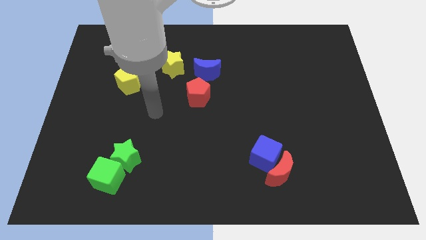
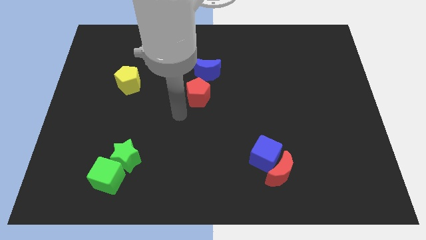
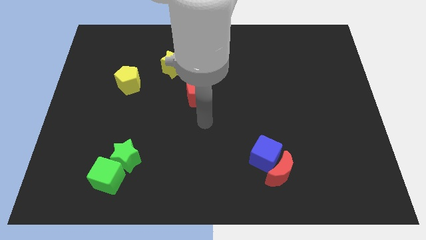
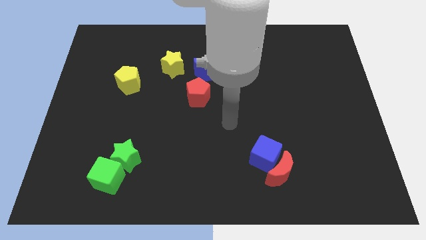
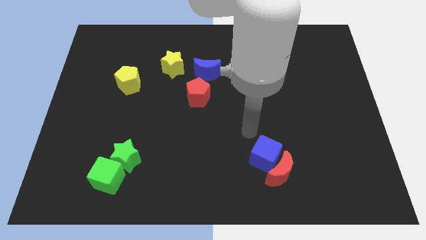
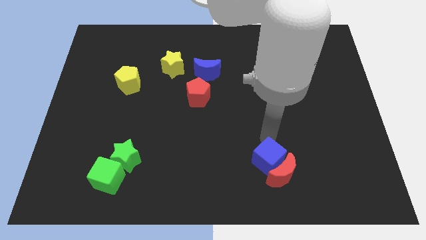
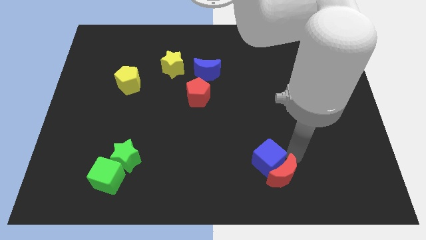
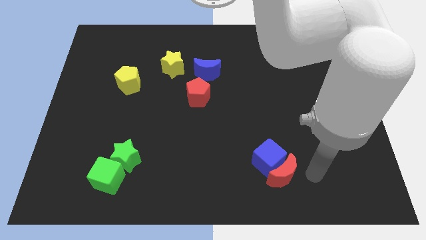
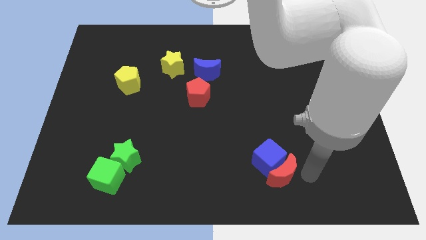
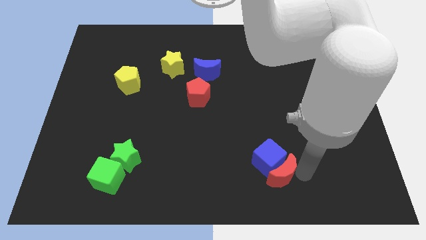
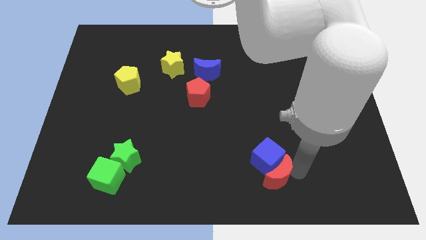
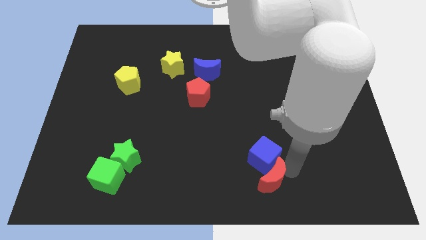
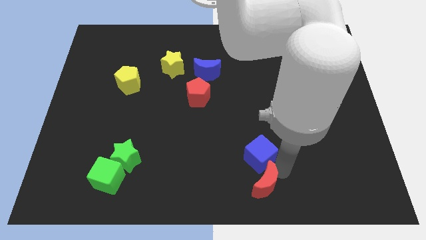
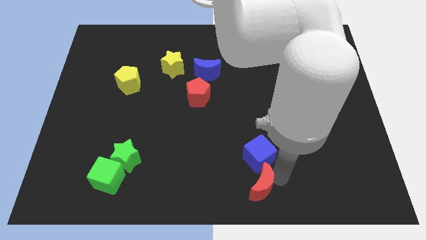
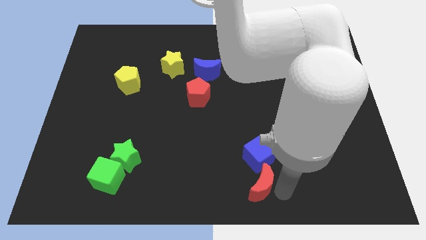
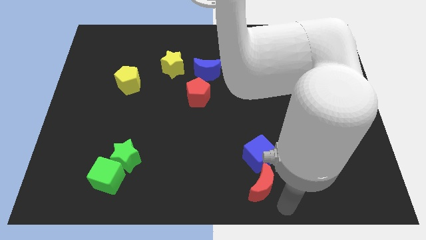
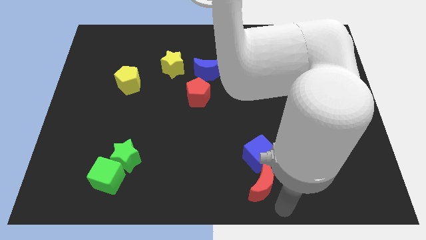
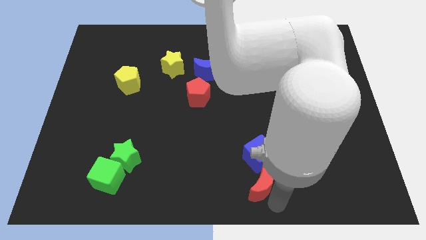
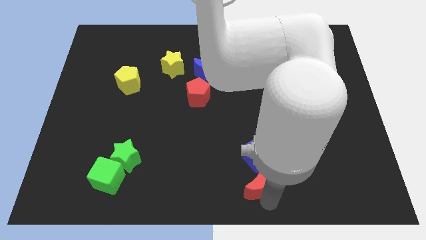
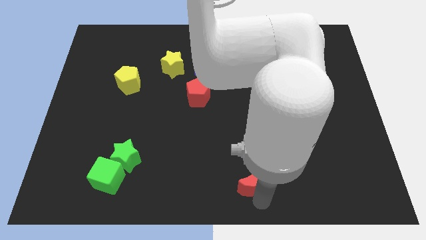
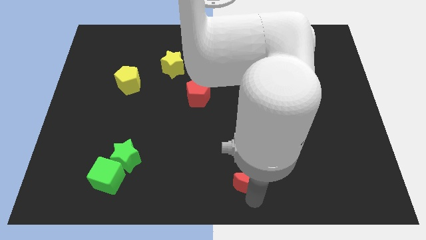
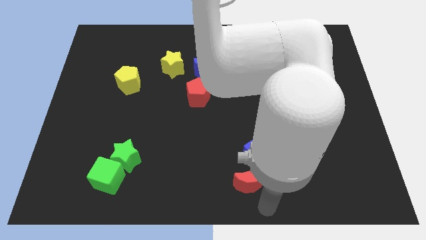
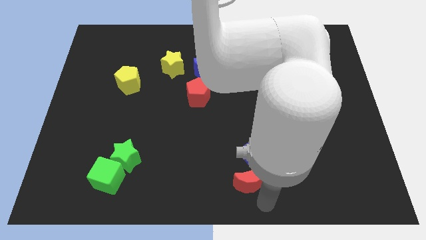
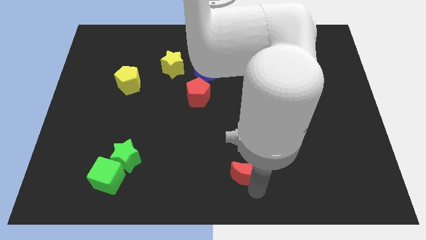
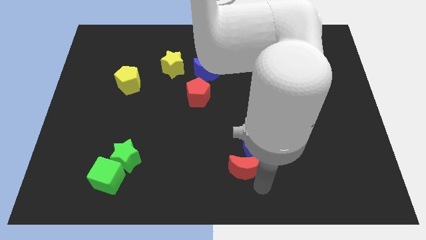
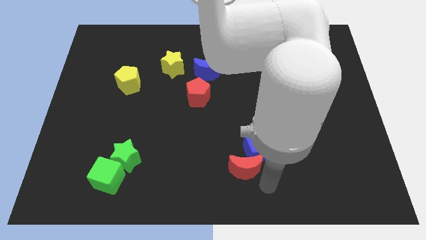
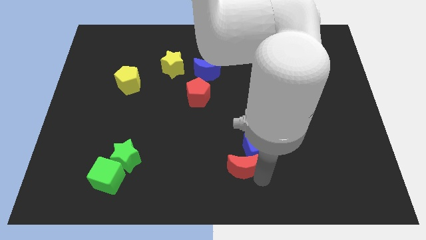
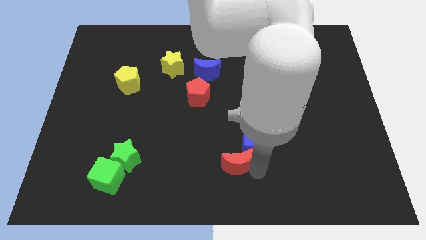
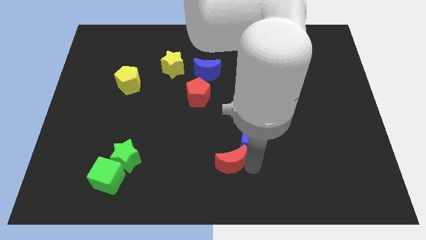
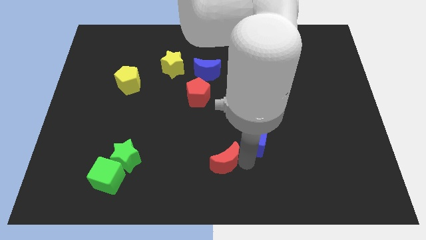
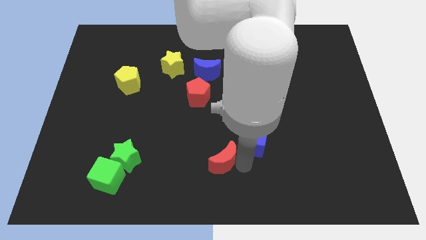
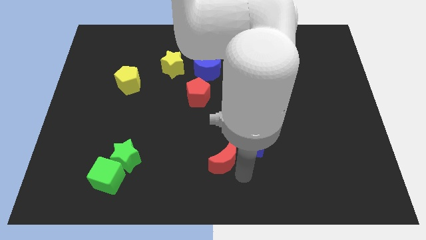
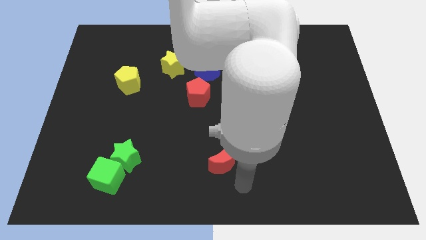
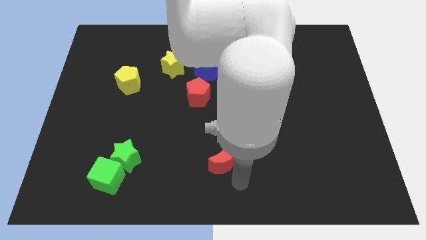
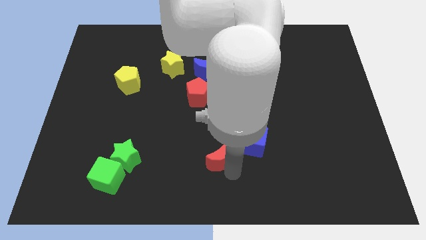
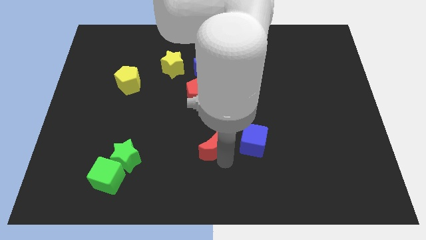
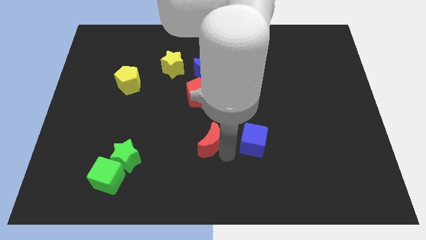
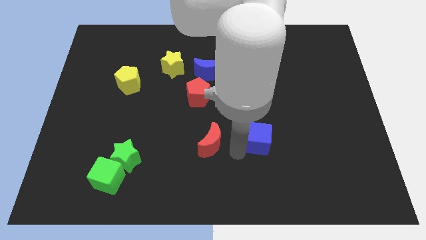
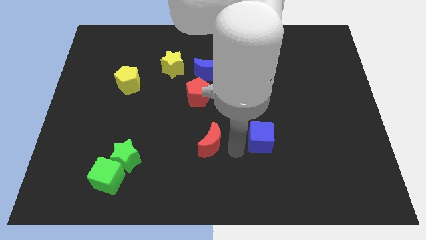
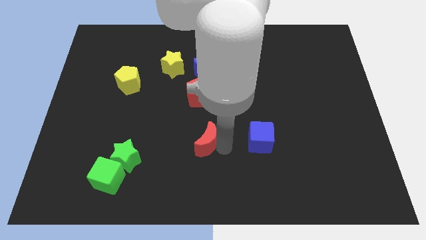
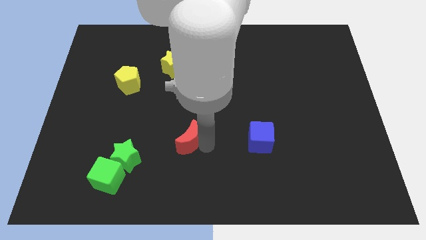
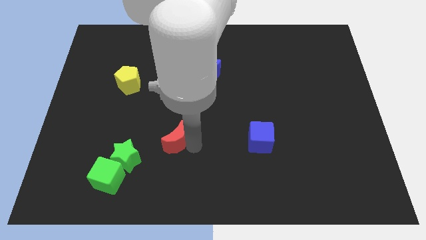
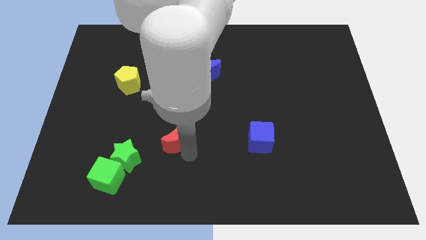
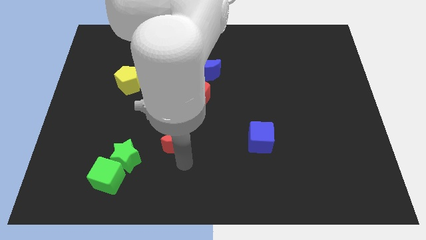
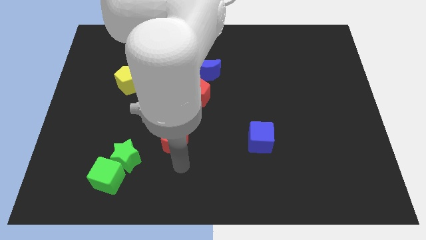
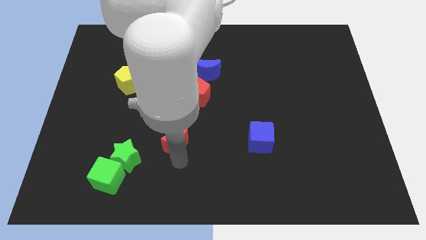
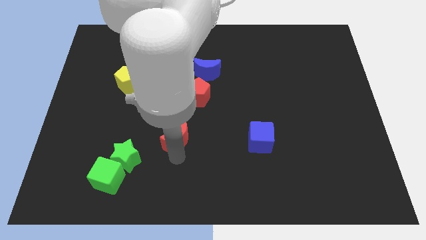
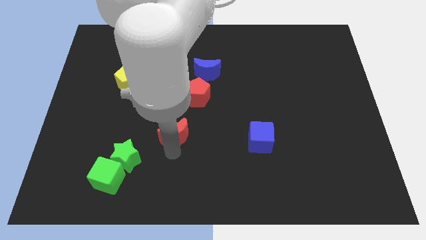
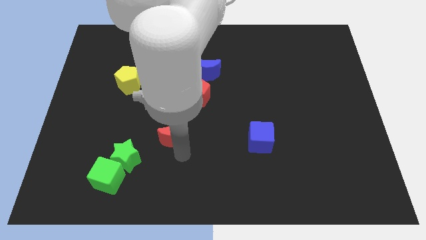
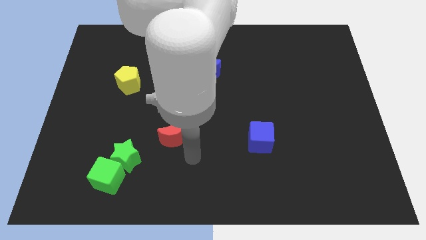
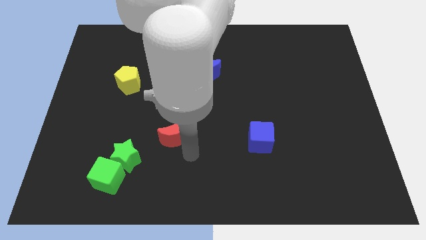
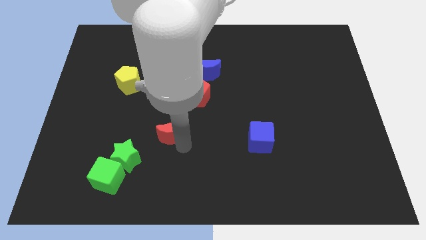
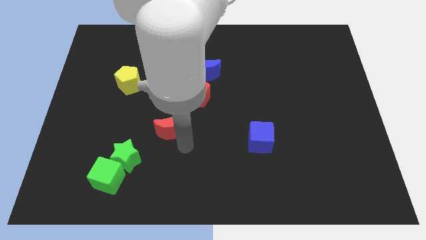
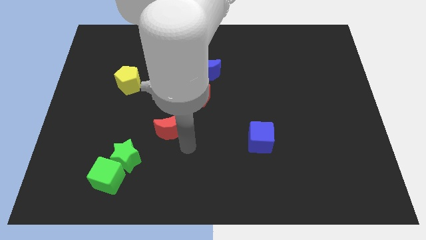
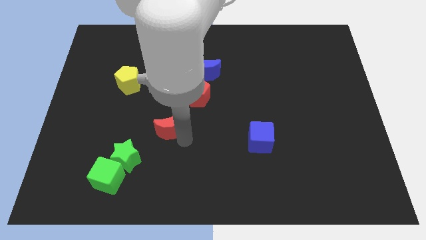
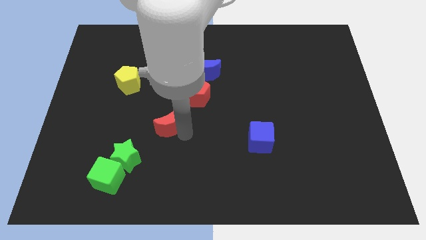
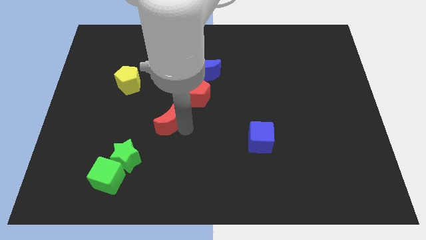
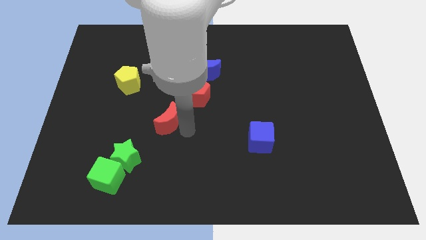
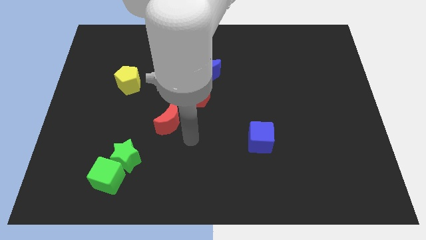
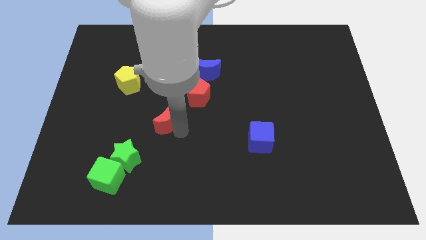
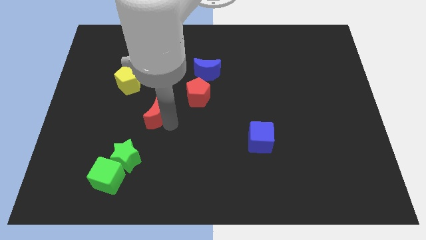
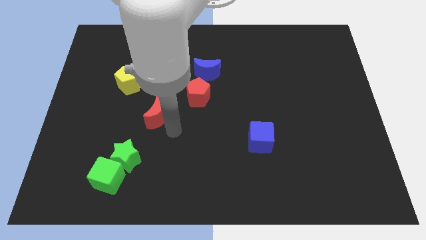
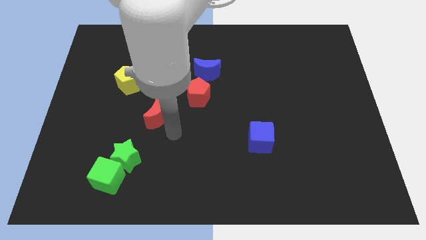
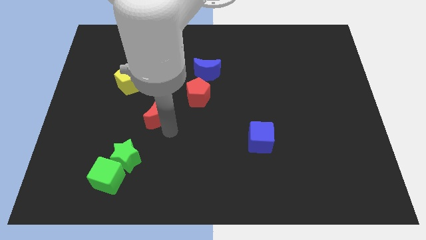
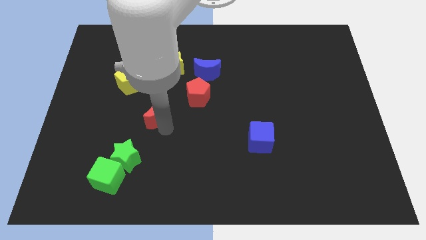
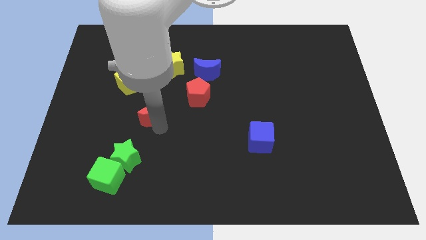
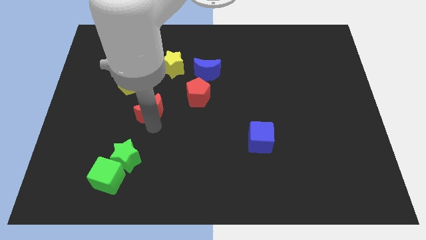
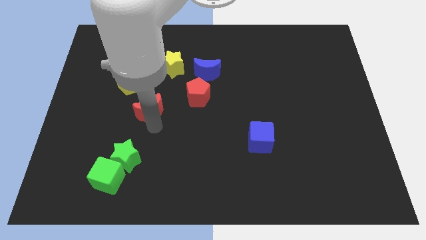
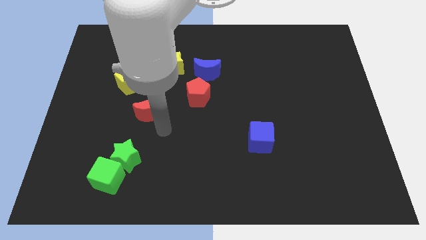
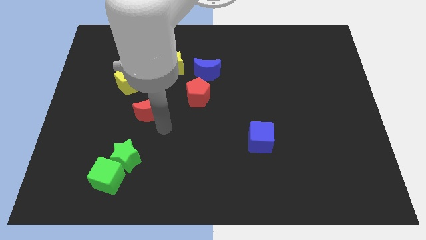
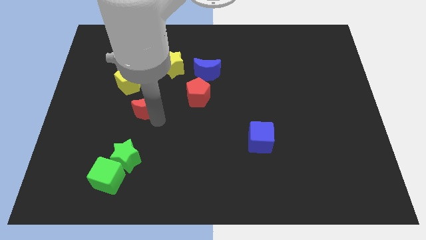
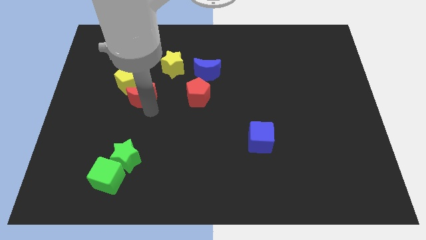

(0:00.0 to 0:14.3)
move the red moon to the yellow pentagon
